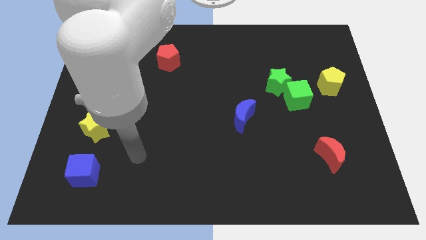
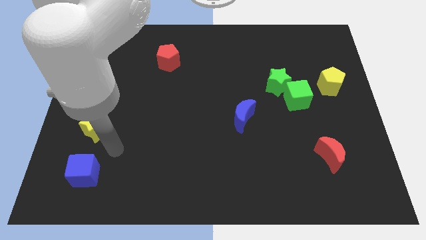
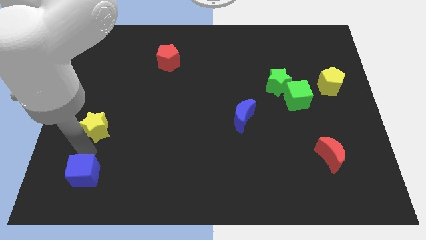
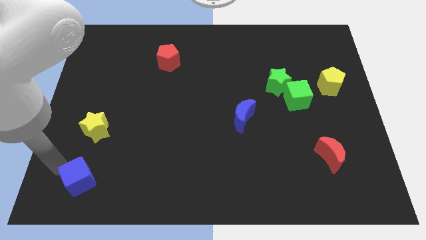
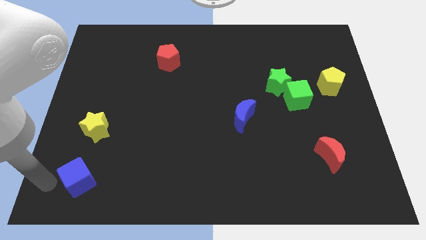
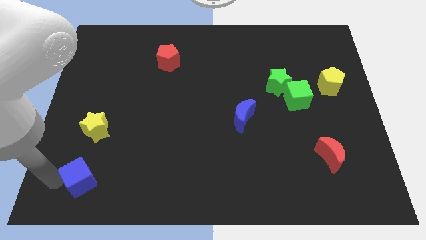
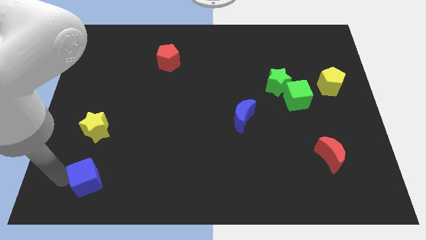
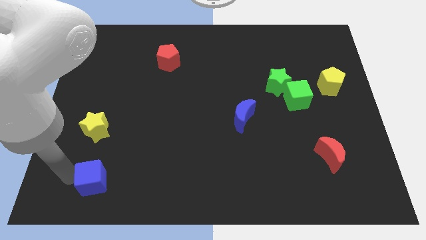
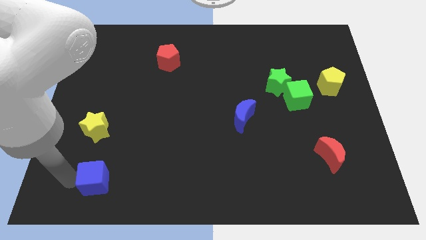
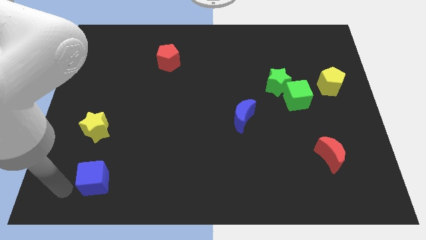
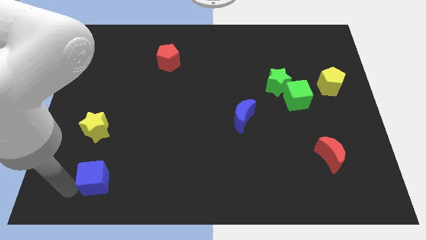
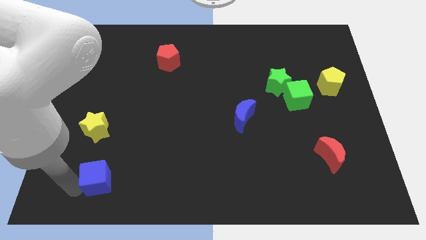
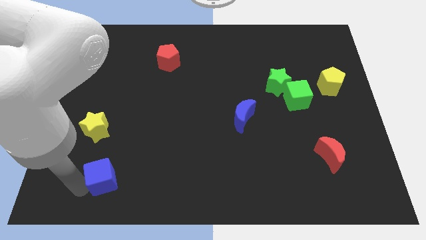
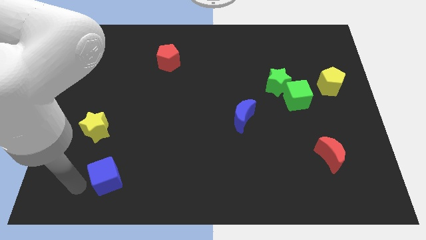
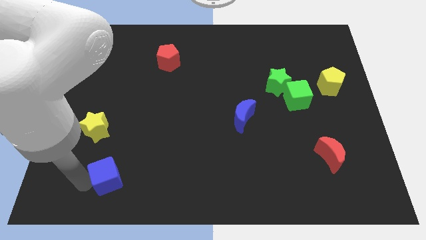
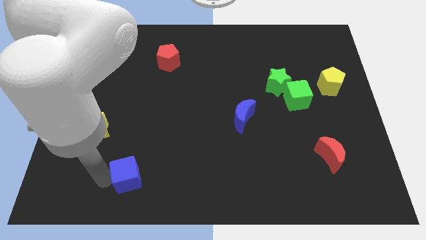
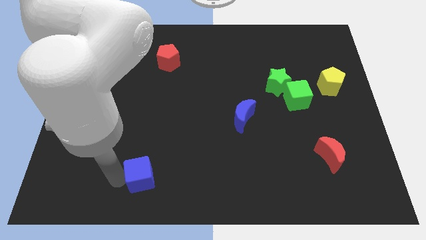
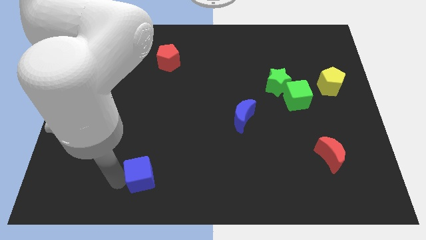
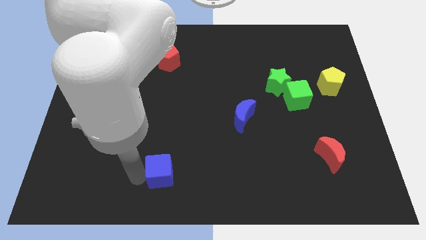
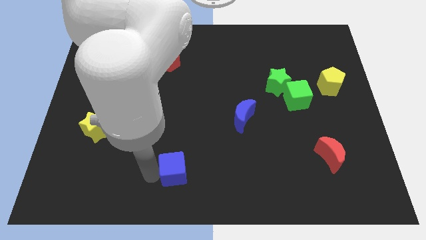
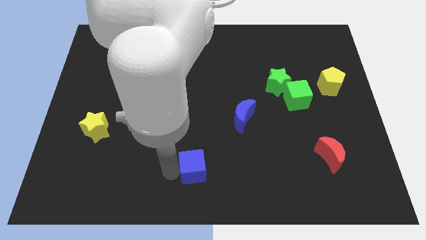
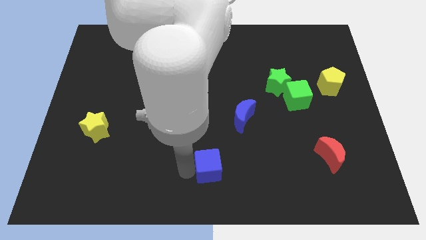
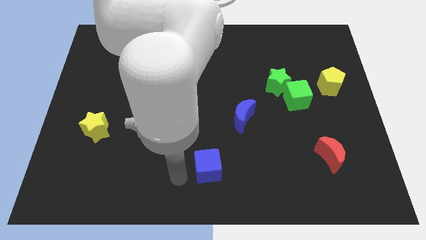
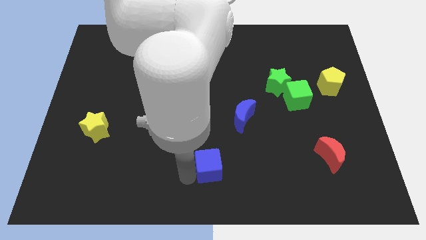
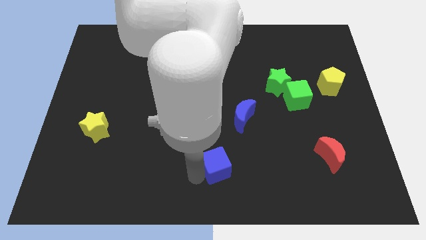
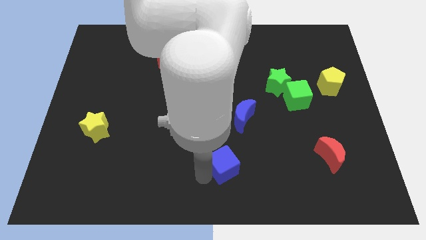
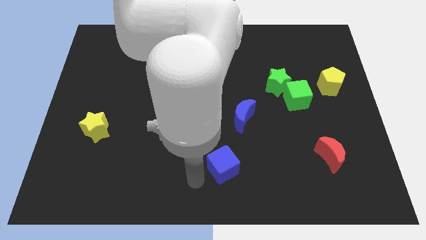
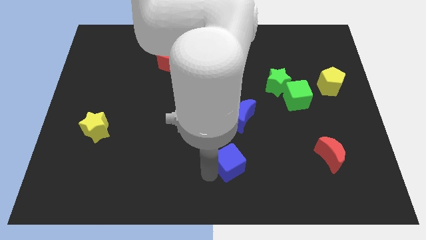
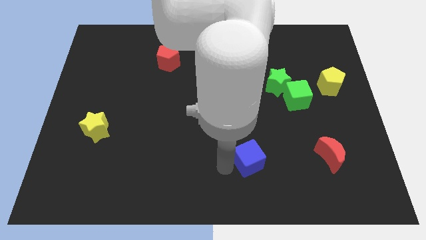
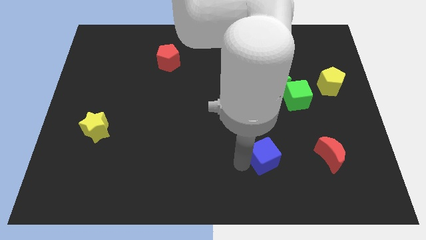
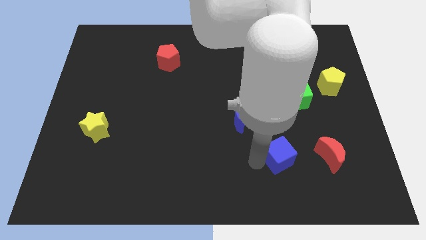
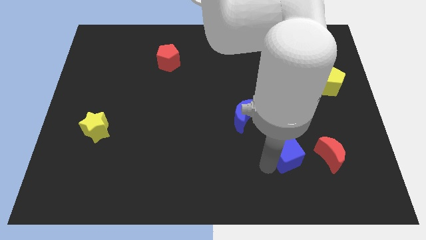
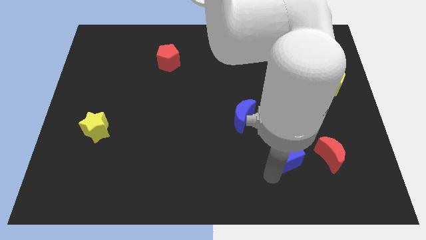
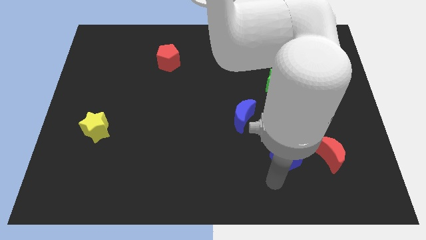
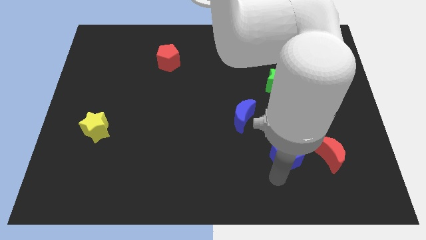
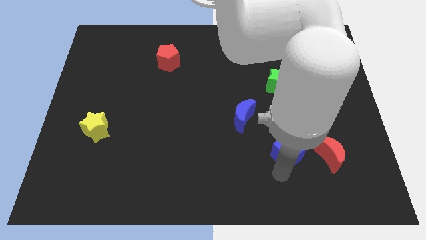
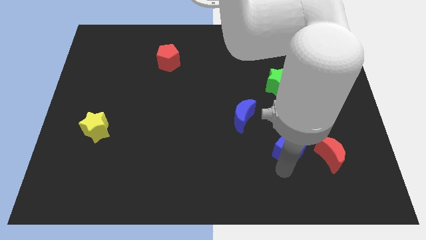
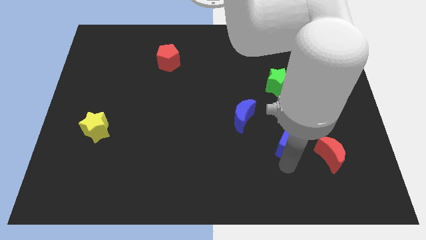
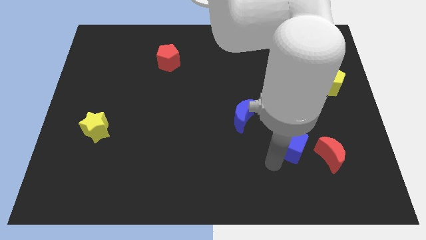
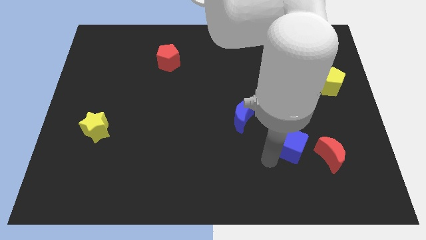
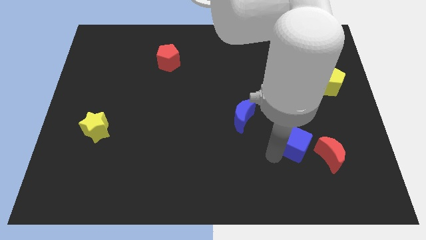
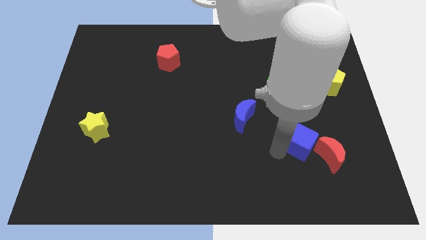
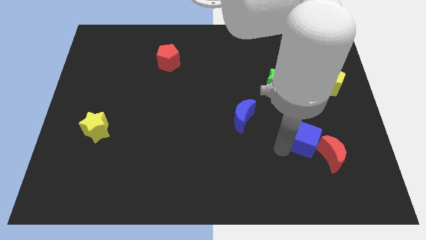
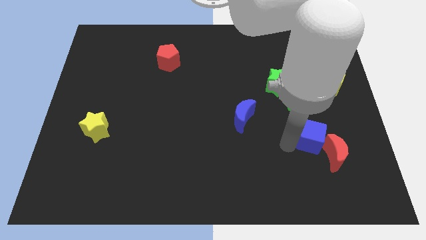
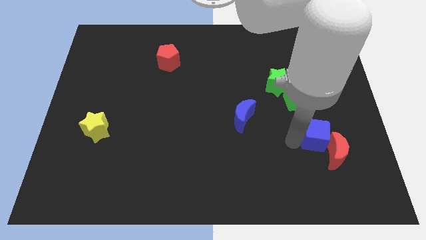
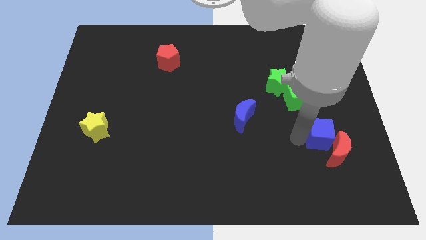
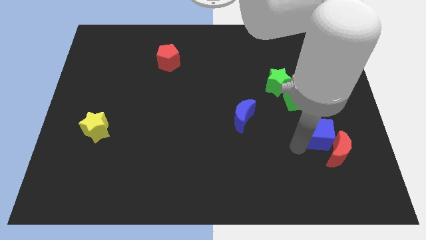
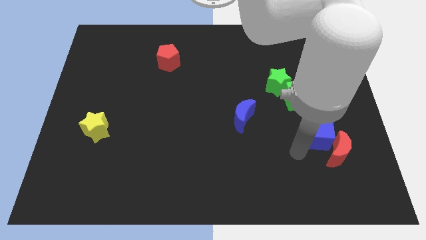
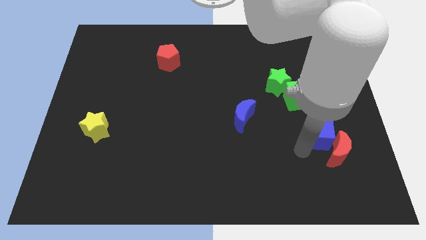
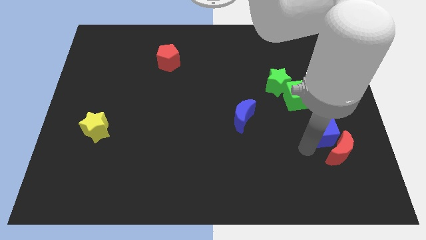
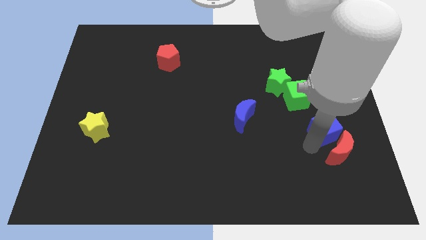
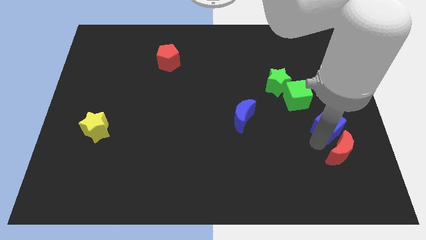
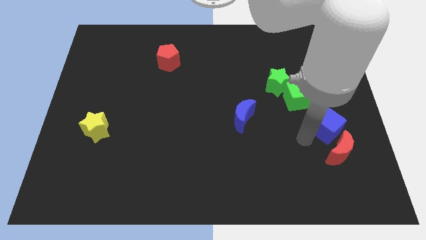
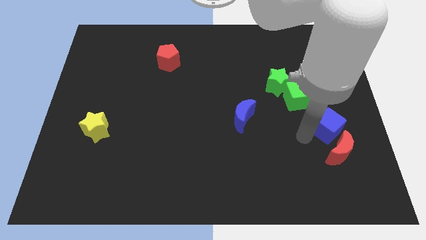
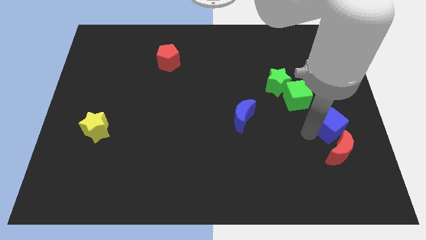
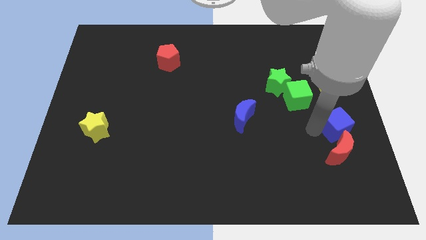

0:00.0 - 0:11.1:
move the blue cube to the center right

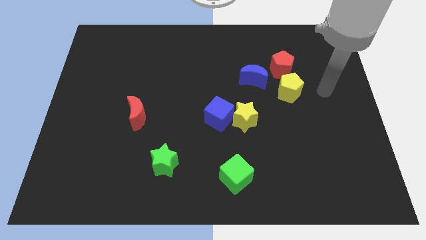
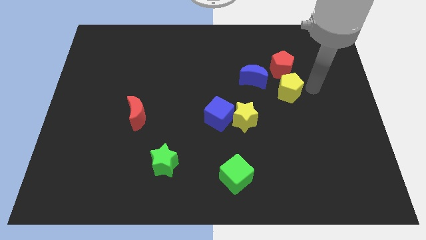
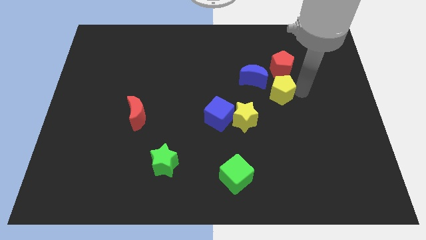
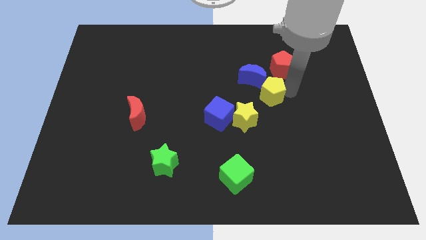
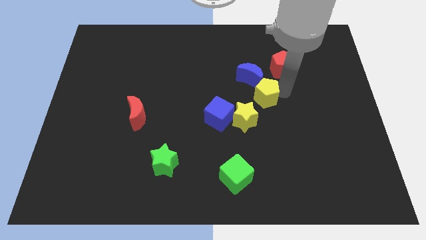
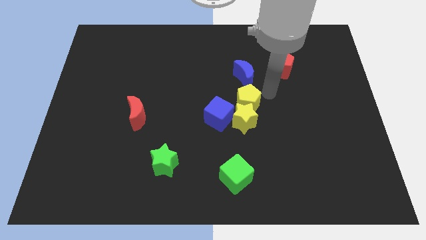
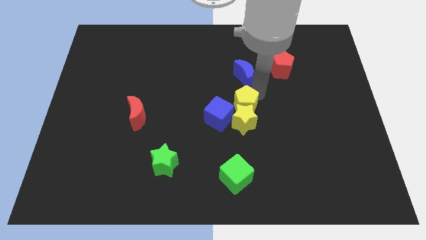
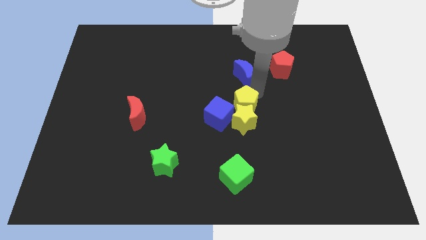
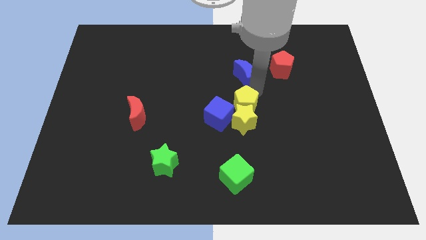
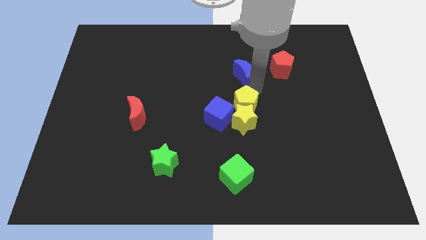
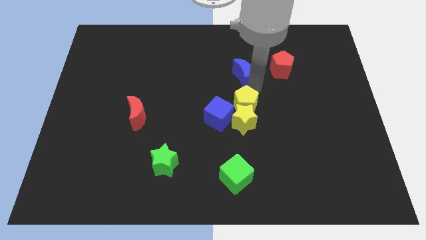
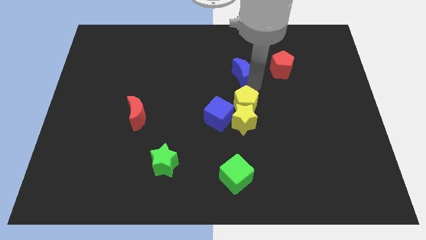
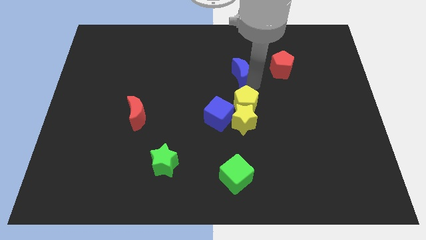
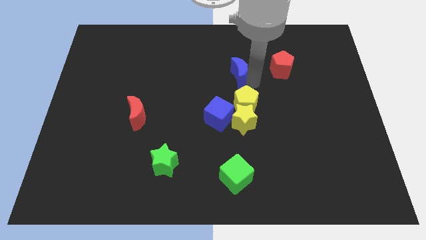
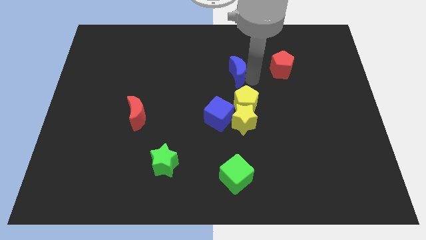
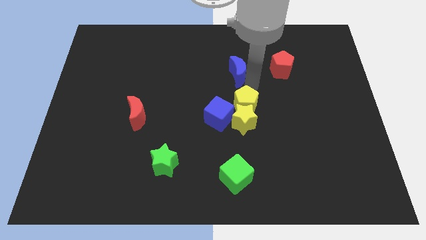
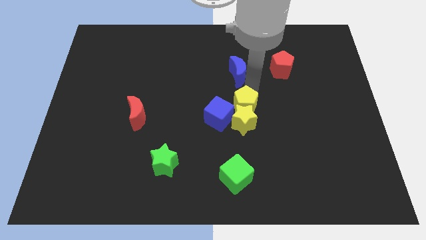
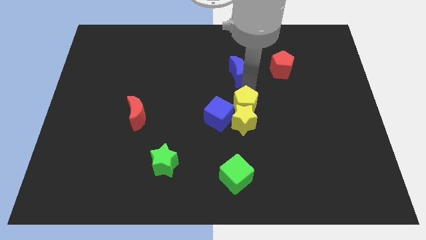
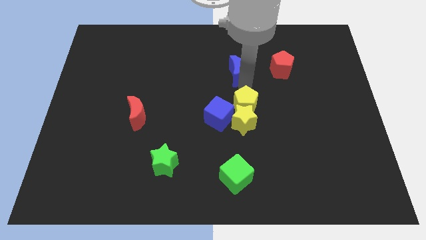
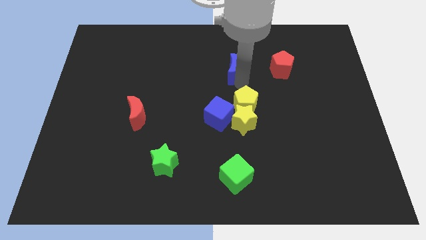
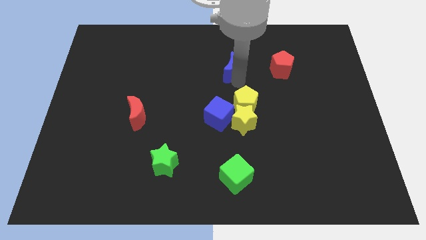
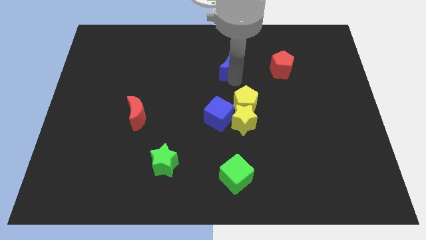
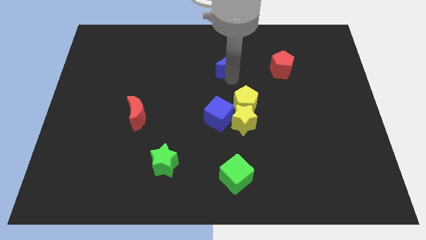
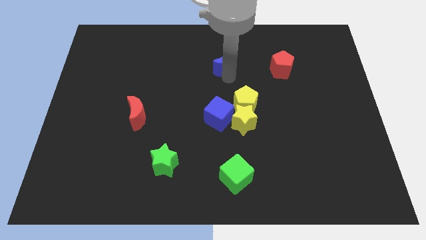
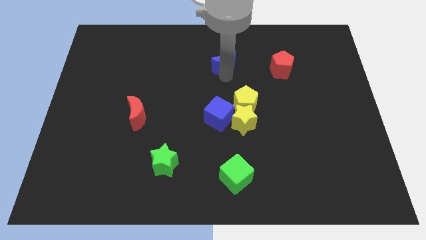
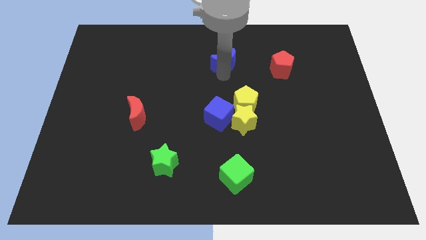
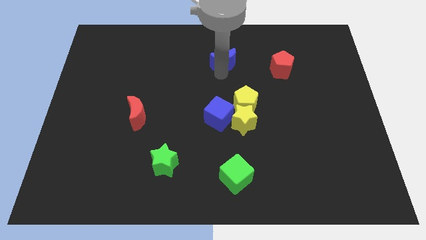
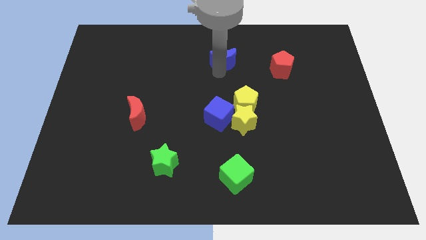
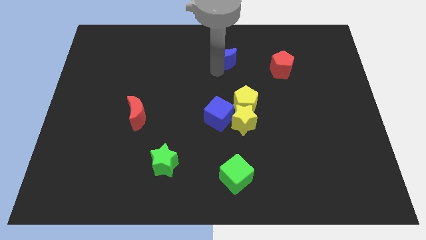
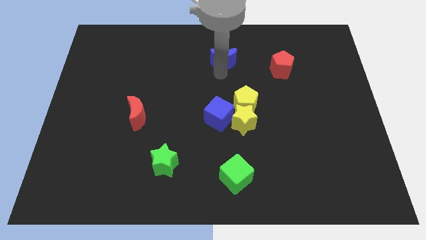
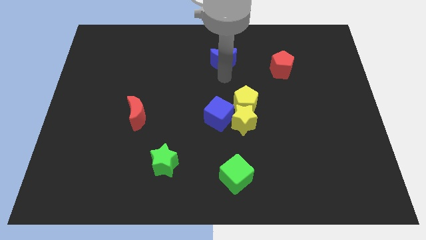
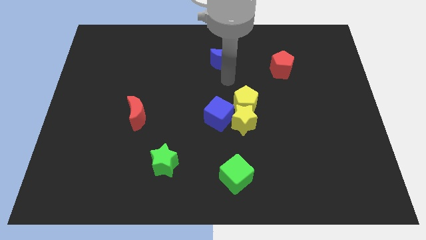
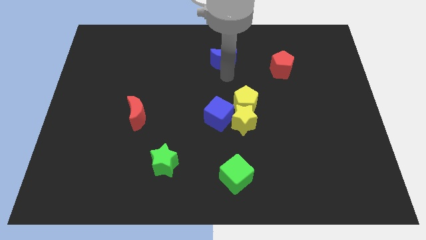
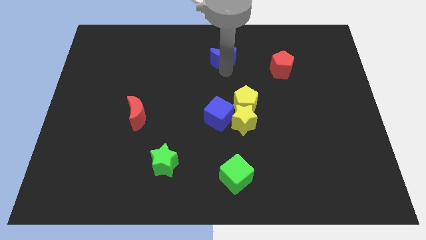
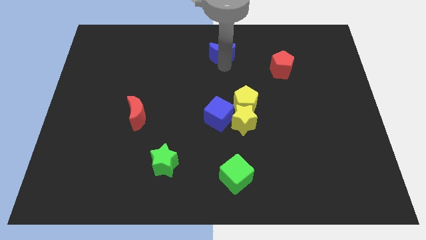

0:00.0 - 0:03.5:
put the blue moon to the towards your base
